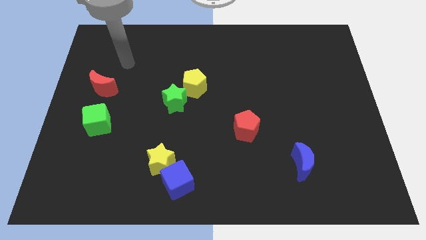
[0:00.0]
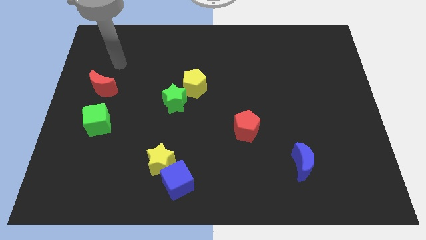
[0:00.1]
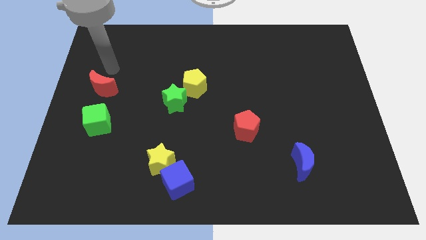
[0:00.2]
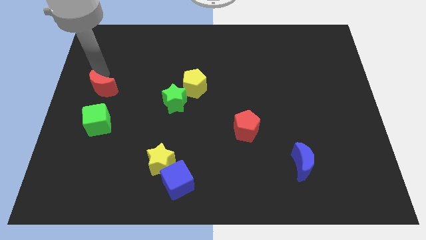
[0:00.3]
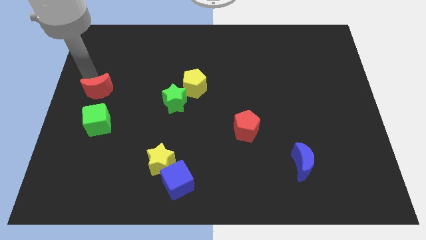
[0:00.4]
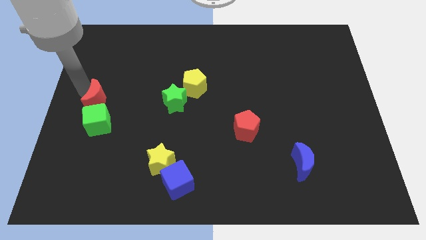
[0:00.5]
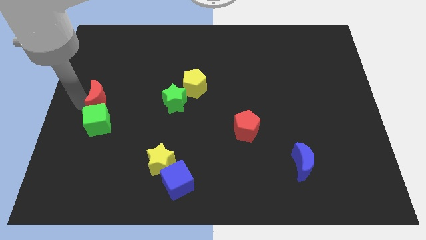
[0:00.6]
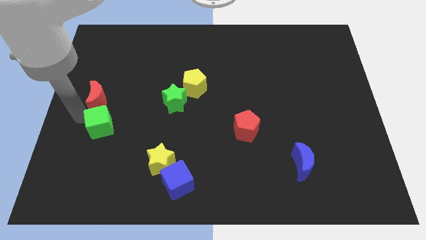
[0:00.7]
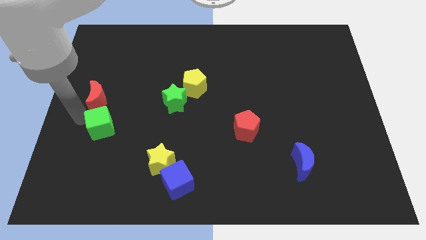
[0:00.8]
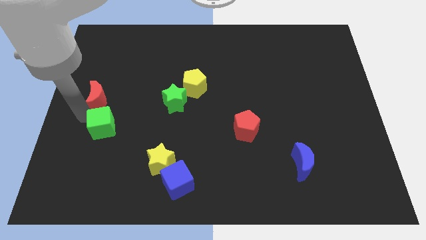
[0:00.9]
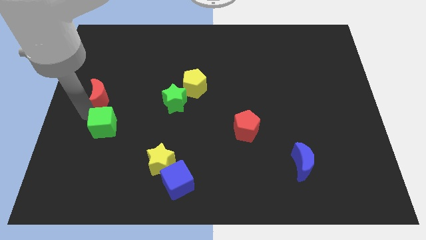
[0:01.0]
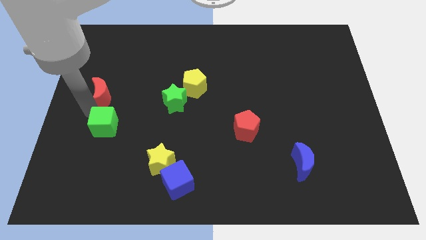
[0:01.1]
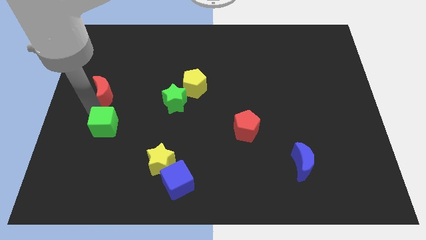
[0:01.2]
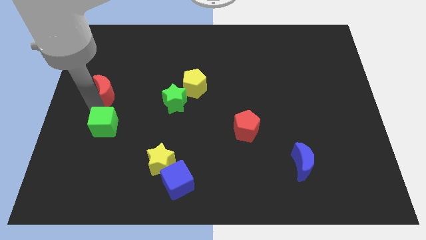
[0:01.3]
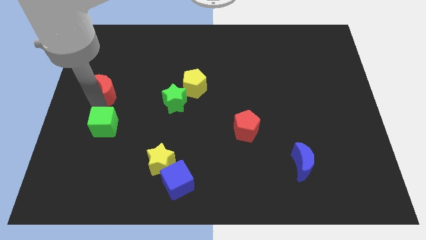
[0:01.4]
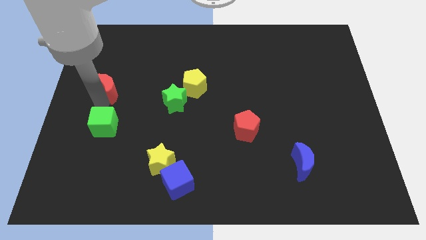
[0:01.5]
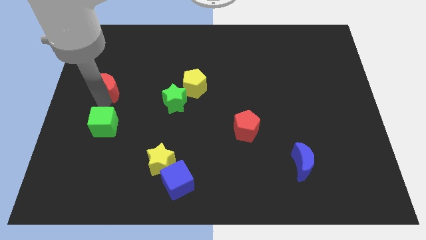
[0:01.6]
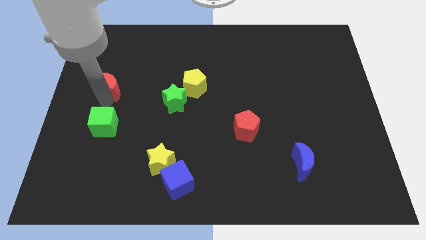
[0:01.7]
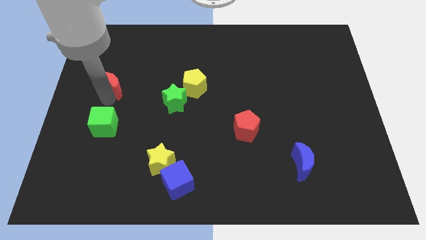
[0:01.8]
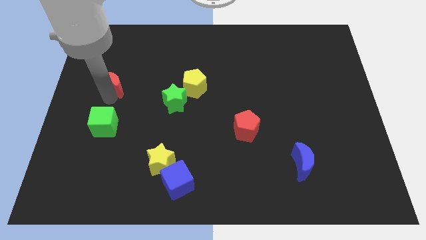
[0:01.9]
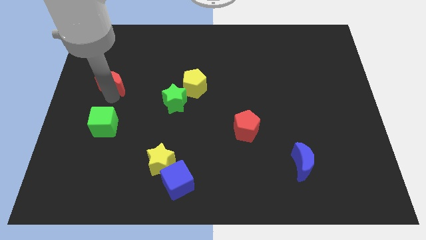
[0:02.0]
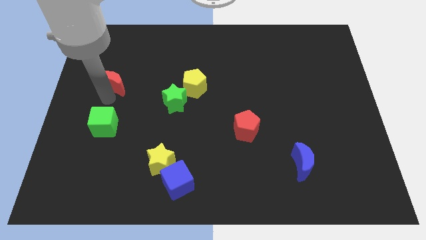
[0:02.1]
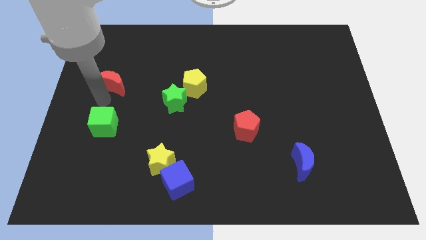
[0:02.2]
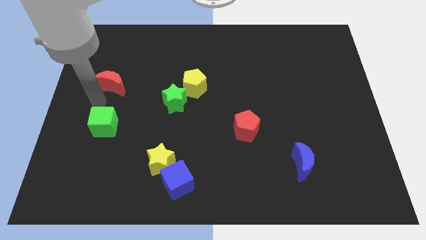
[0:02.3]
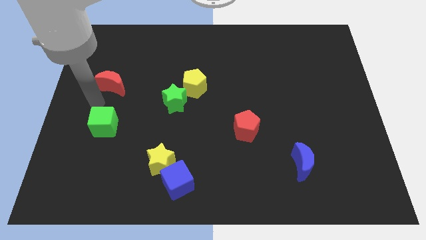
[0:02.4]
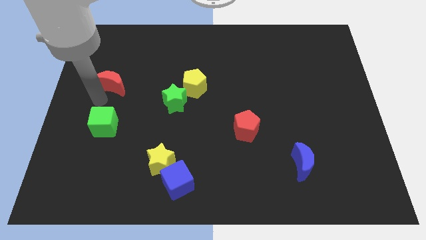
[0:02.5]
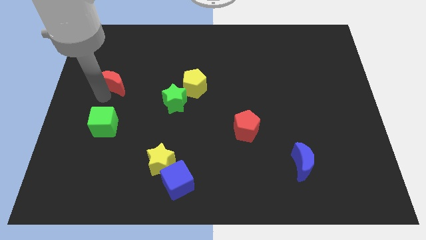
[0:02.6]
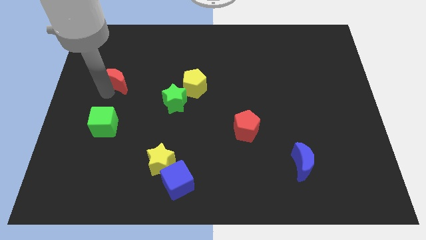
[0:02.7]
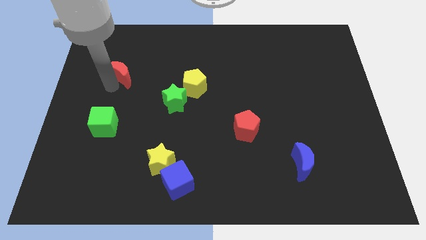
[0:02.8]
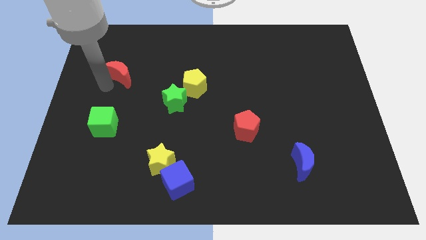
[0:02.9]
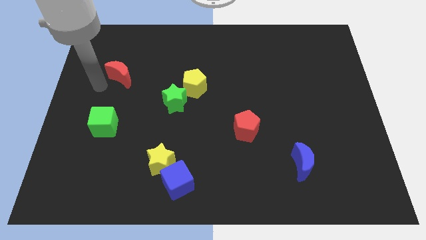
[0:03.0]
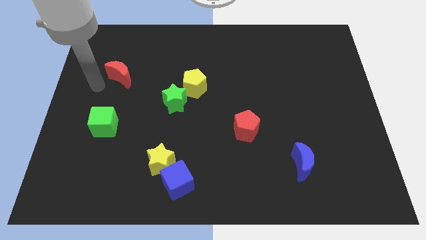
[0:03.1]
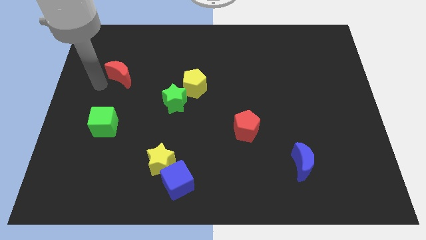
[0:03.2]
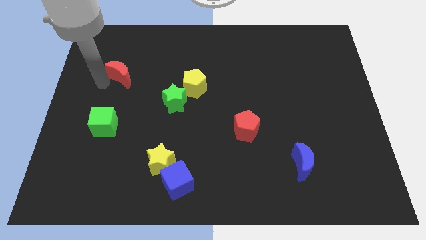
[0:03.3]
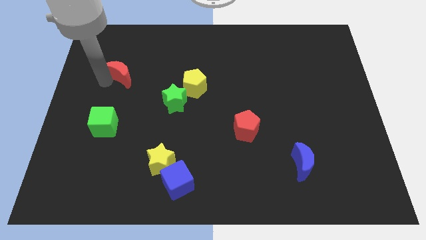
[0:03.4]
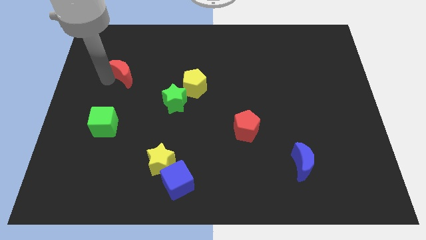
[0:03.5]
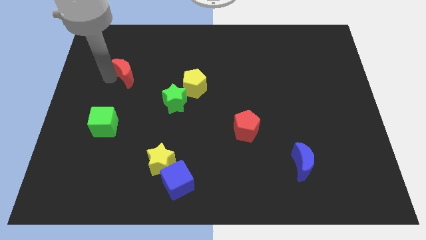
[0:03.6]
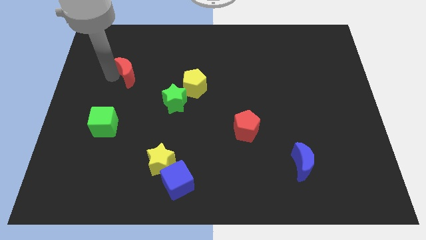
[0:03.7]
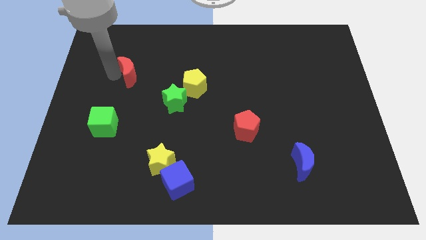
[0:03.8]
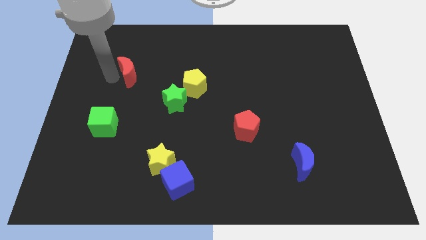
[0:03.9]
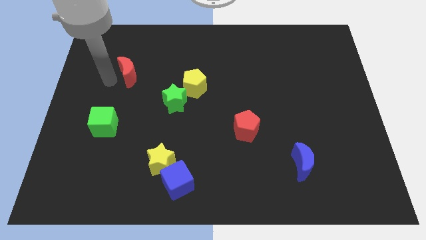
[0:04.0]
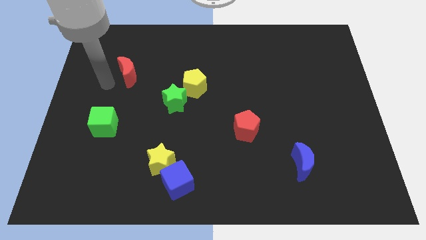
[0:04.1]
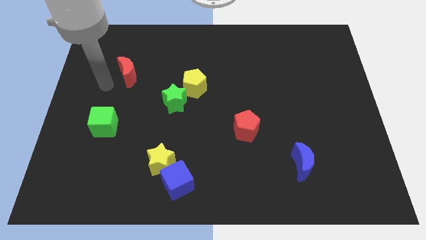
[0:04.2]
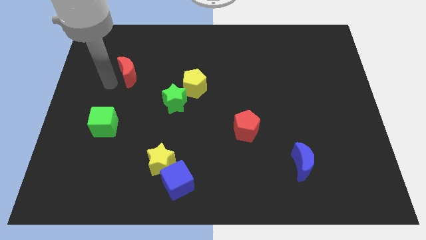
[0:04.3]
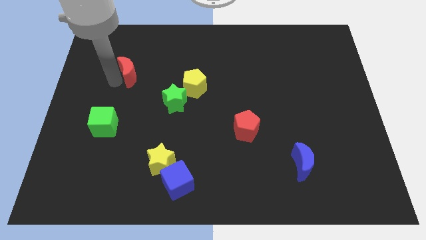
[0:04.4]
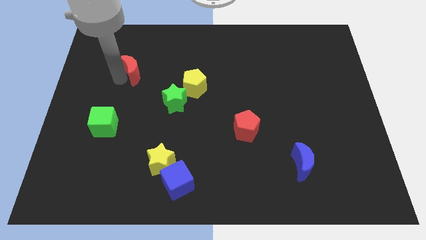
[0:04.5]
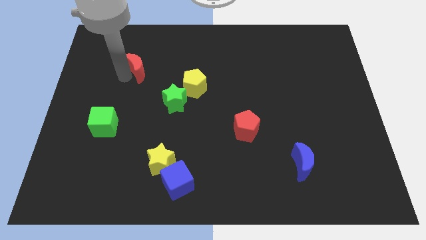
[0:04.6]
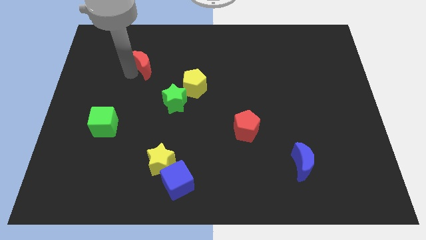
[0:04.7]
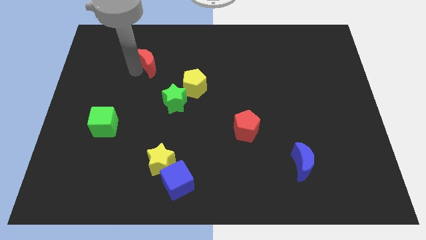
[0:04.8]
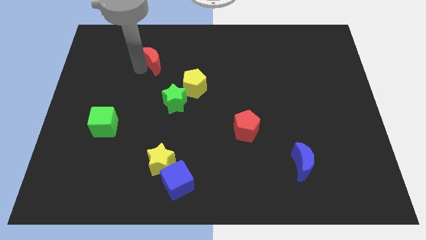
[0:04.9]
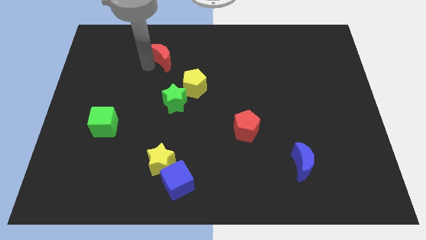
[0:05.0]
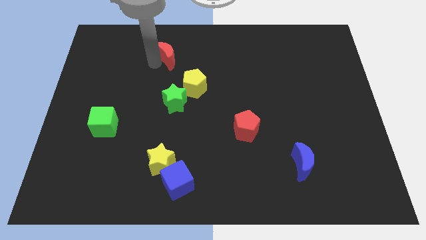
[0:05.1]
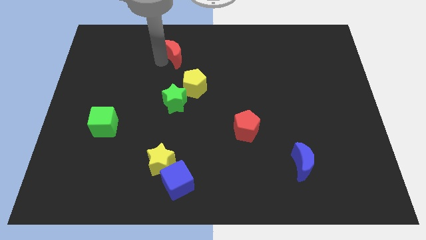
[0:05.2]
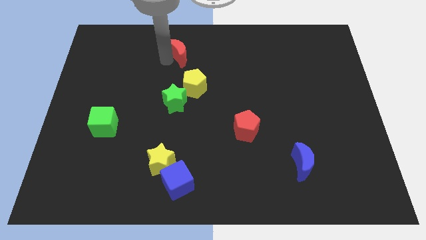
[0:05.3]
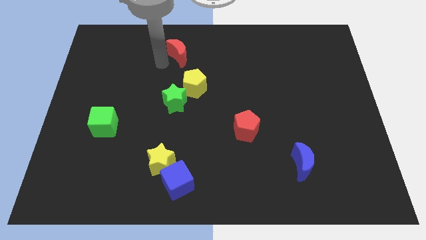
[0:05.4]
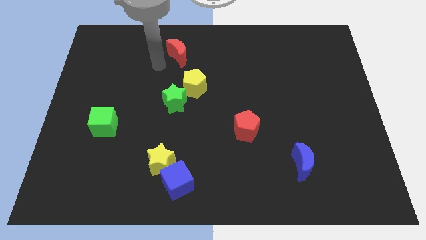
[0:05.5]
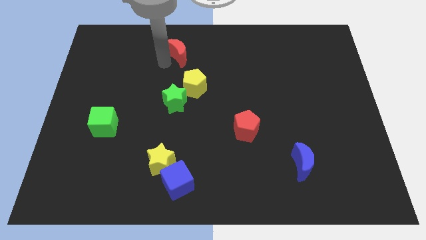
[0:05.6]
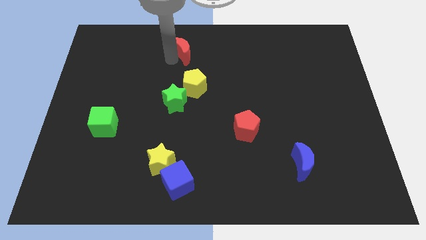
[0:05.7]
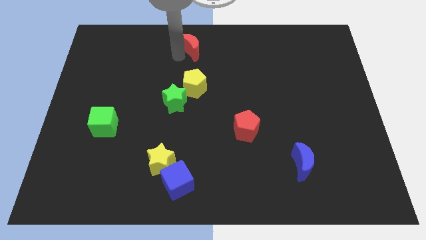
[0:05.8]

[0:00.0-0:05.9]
put the red moon to the top

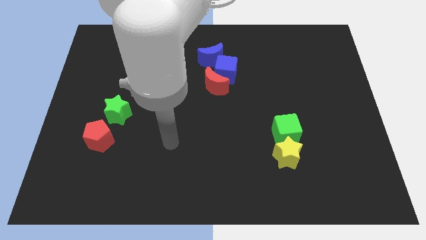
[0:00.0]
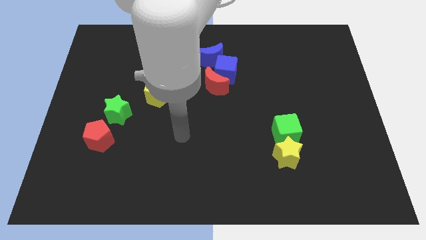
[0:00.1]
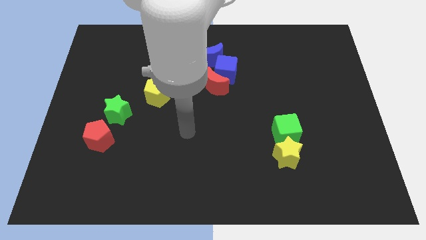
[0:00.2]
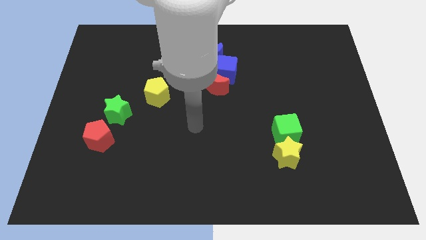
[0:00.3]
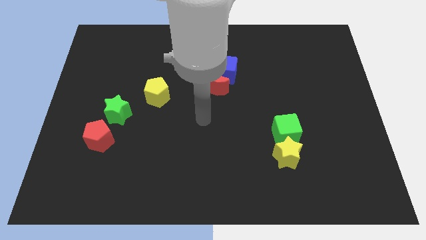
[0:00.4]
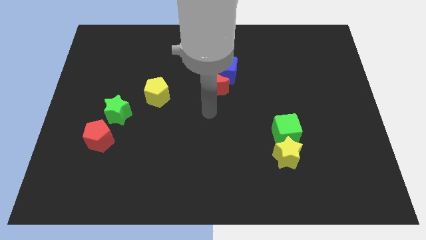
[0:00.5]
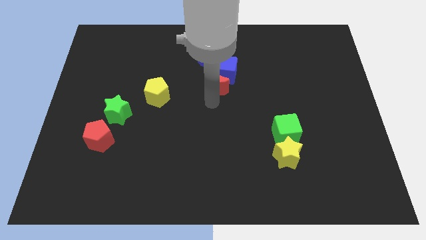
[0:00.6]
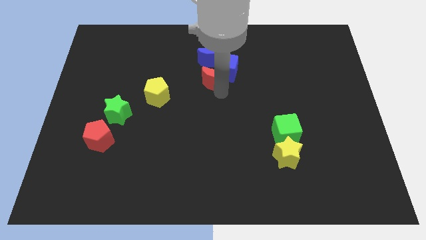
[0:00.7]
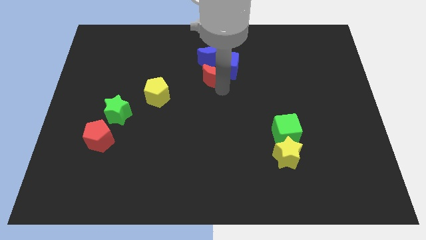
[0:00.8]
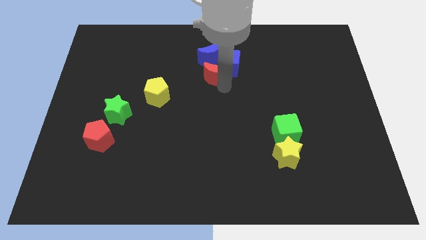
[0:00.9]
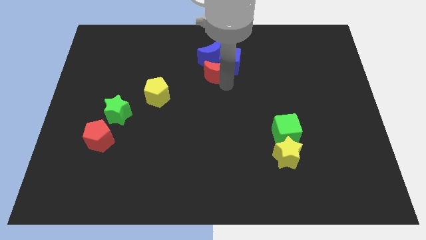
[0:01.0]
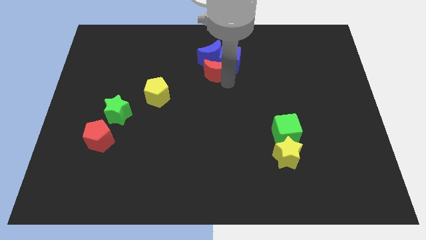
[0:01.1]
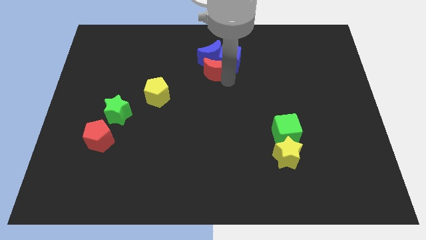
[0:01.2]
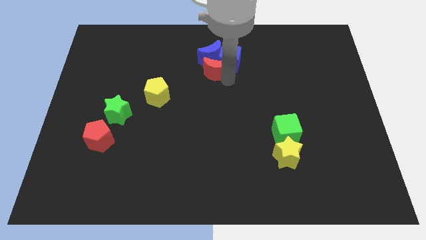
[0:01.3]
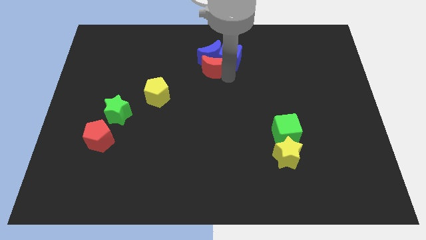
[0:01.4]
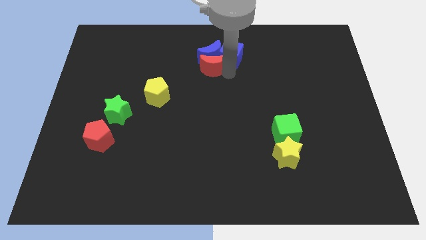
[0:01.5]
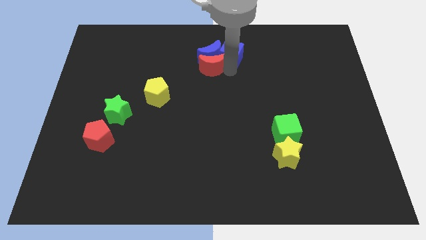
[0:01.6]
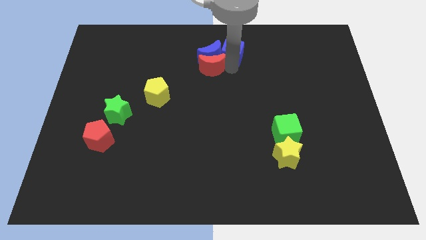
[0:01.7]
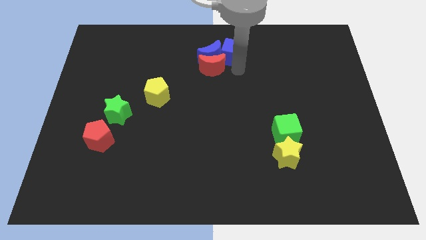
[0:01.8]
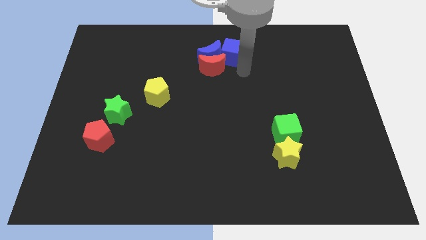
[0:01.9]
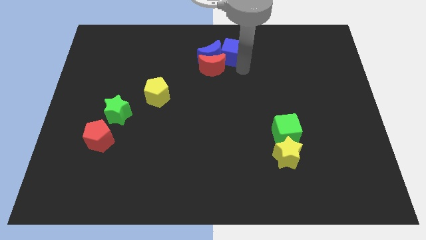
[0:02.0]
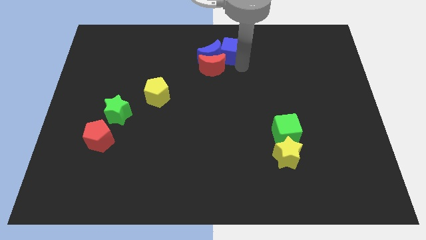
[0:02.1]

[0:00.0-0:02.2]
put the blue cube to the towards your base
